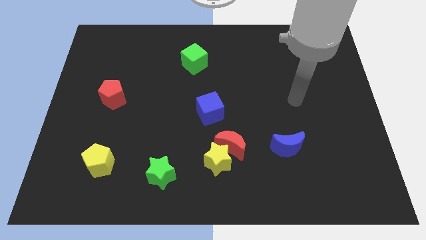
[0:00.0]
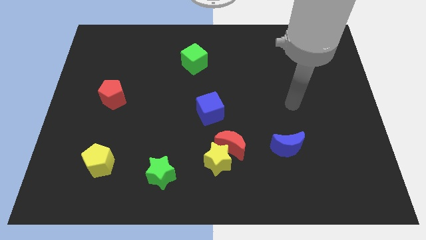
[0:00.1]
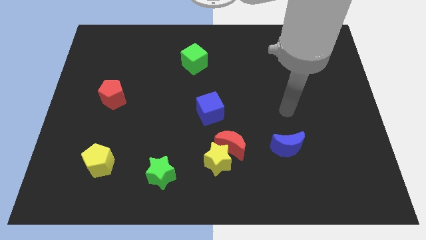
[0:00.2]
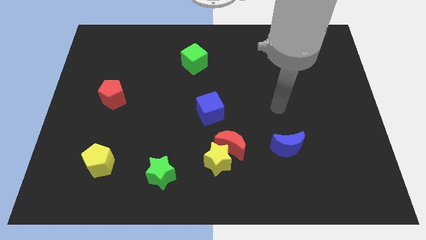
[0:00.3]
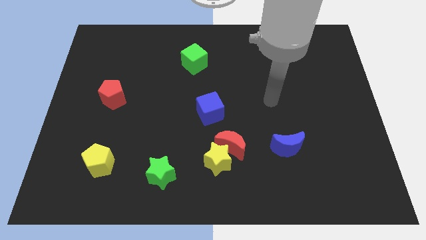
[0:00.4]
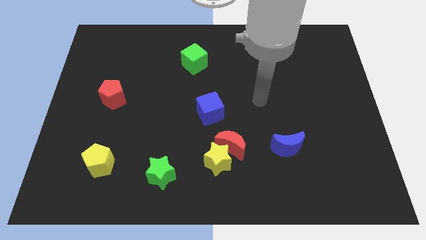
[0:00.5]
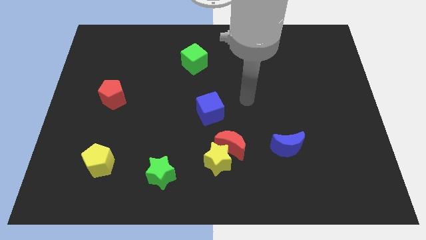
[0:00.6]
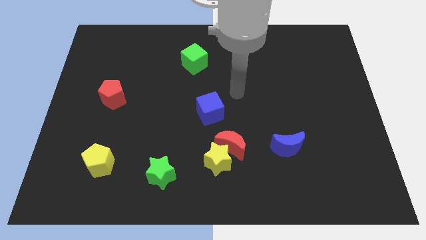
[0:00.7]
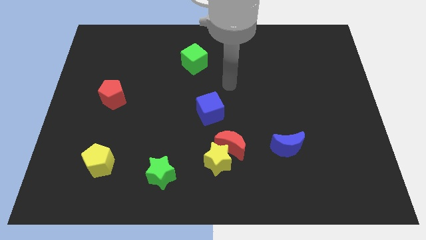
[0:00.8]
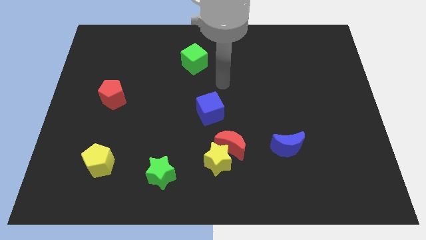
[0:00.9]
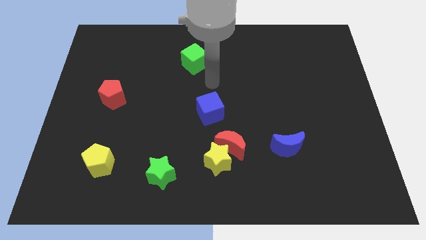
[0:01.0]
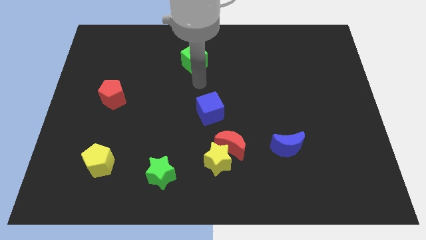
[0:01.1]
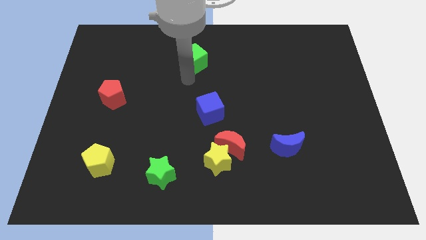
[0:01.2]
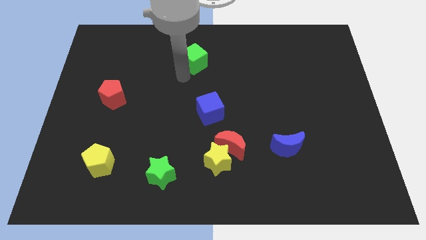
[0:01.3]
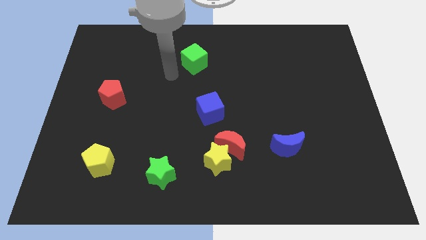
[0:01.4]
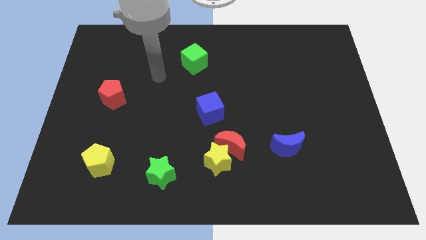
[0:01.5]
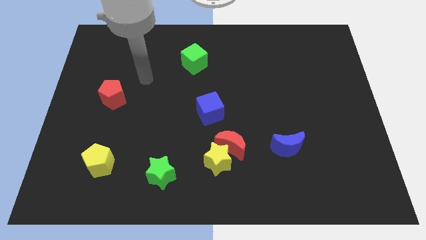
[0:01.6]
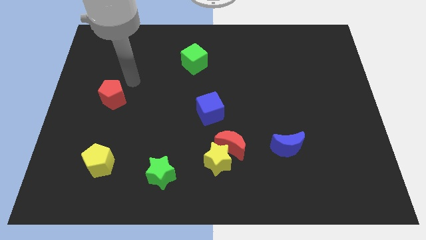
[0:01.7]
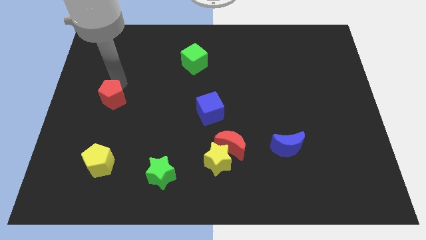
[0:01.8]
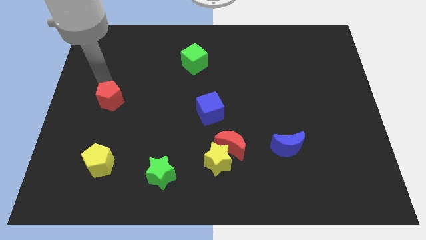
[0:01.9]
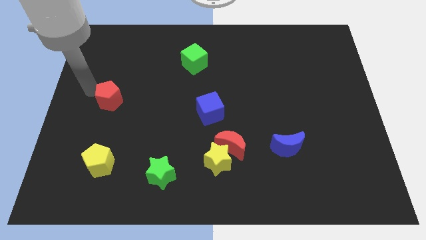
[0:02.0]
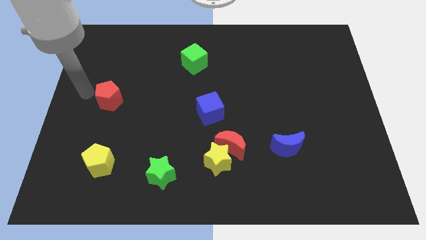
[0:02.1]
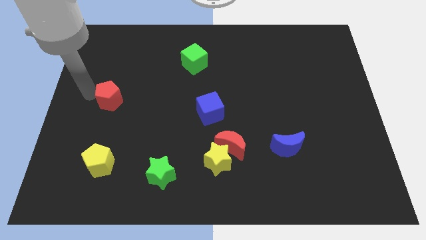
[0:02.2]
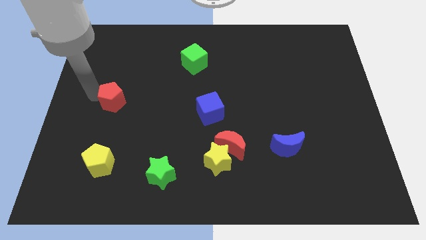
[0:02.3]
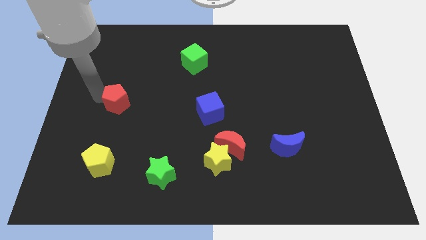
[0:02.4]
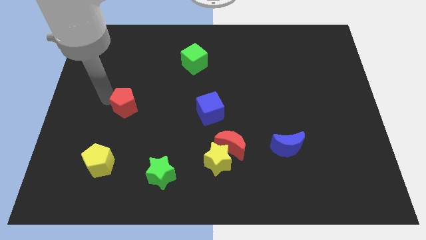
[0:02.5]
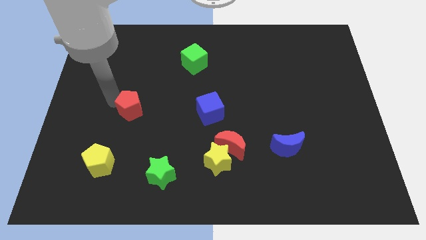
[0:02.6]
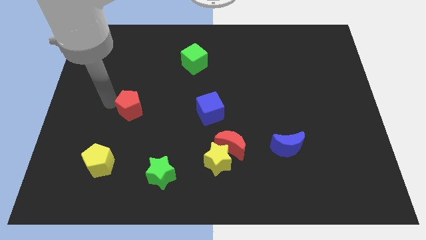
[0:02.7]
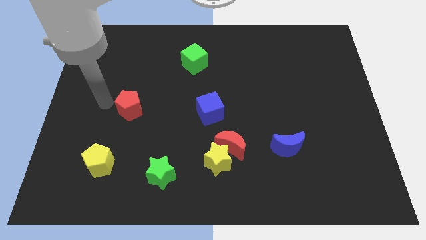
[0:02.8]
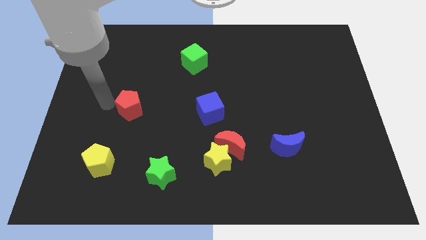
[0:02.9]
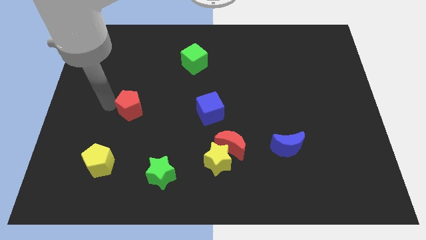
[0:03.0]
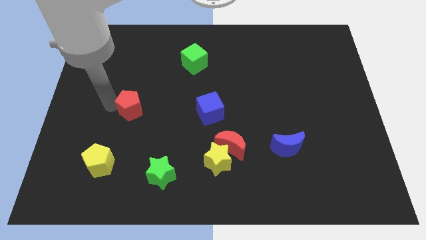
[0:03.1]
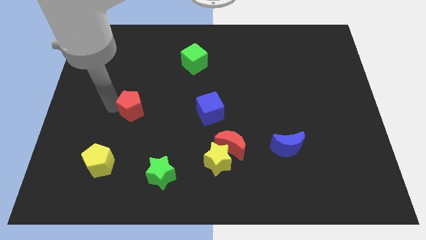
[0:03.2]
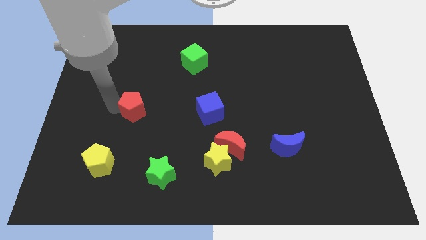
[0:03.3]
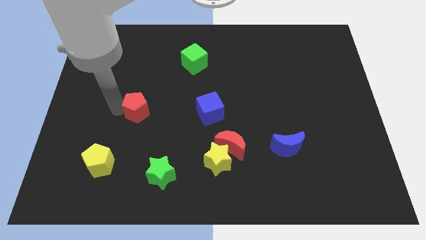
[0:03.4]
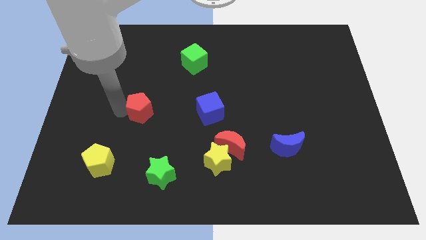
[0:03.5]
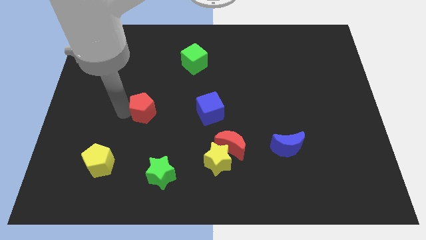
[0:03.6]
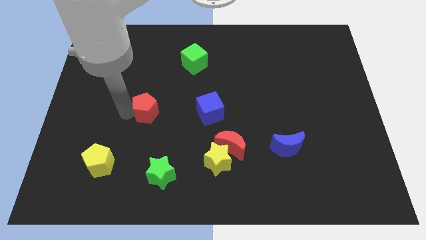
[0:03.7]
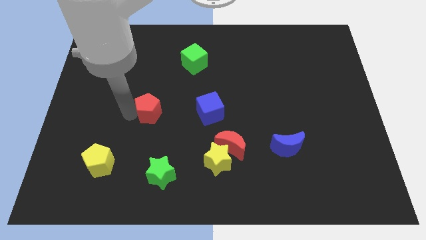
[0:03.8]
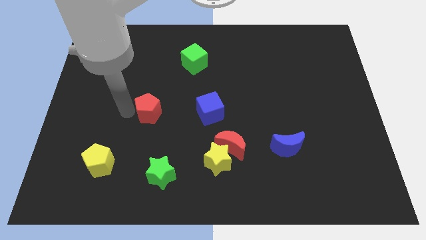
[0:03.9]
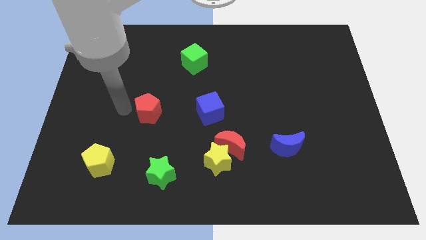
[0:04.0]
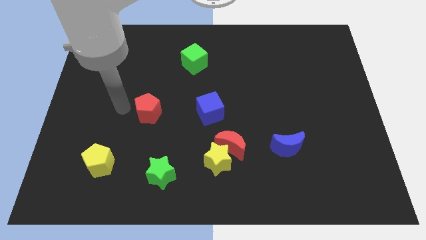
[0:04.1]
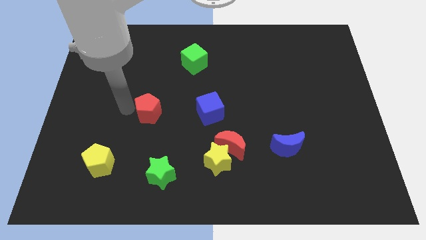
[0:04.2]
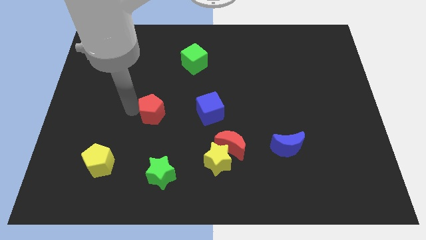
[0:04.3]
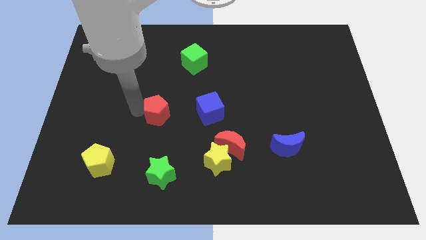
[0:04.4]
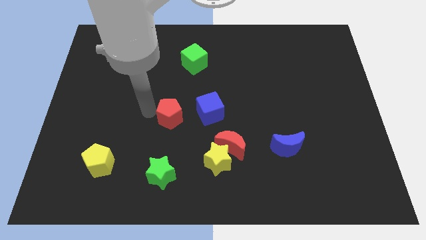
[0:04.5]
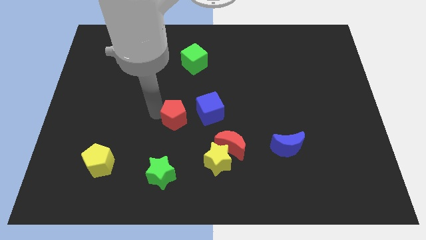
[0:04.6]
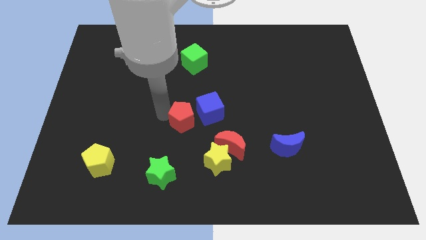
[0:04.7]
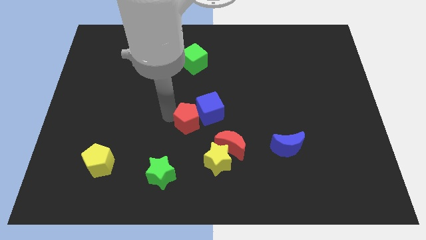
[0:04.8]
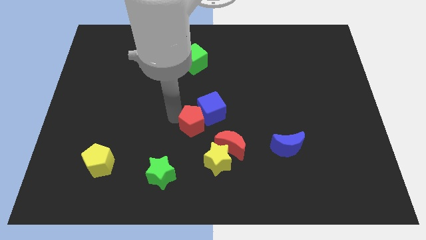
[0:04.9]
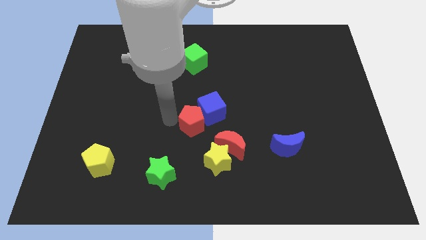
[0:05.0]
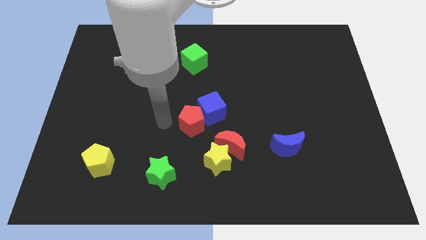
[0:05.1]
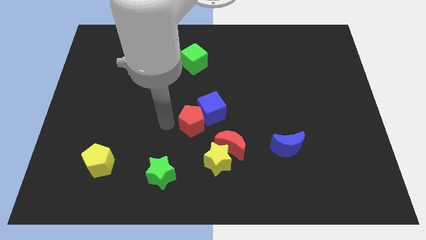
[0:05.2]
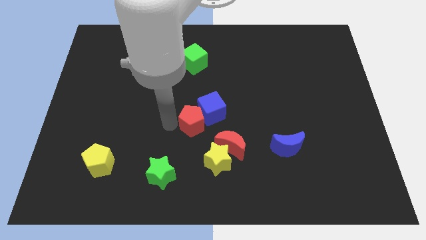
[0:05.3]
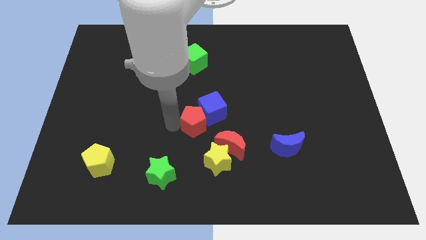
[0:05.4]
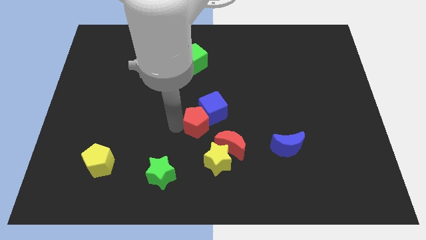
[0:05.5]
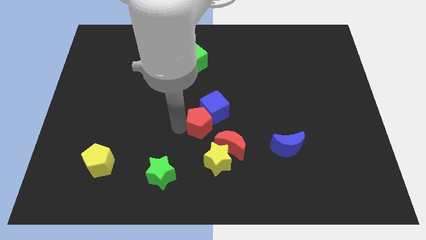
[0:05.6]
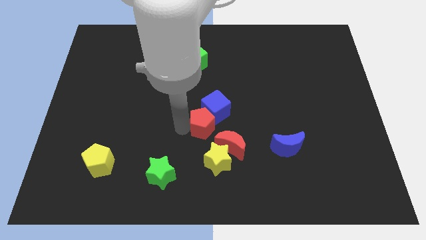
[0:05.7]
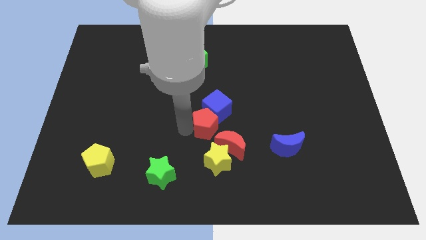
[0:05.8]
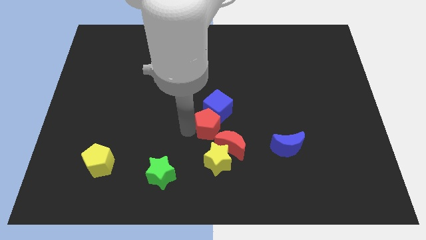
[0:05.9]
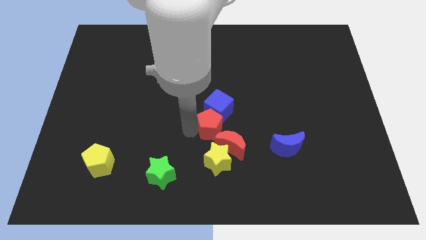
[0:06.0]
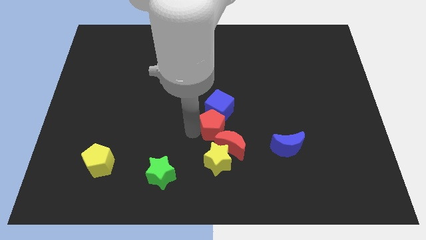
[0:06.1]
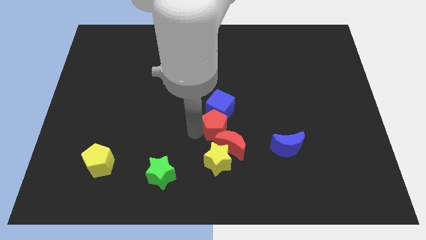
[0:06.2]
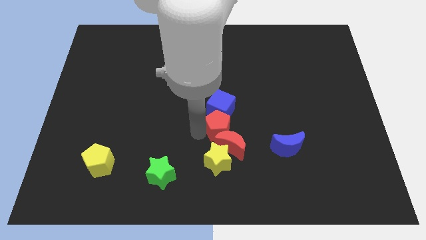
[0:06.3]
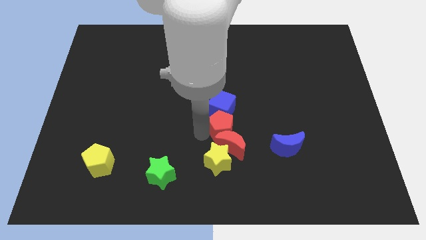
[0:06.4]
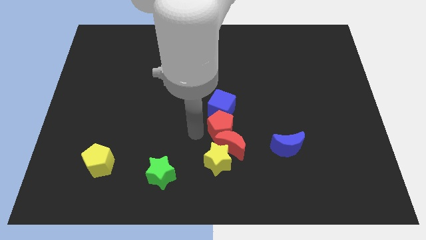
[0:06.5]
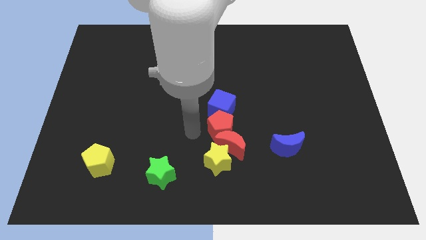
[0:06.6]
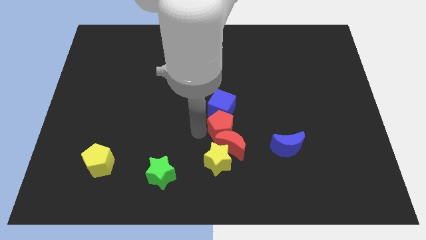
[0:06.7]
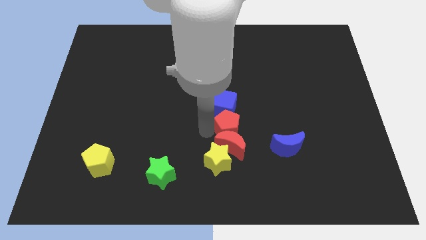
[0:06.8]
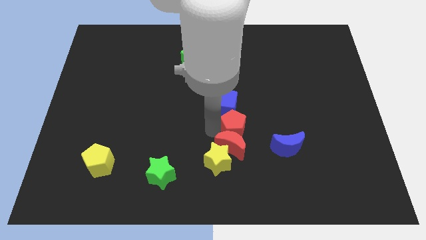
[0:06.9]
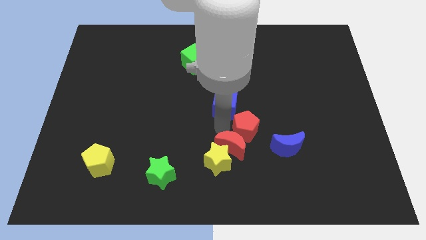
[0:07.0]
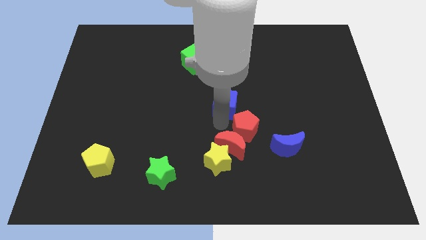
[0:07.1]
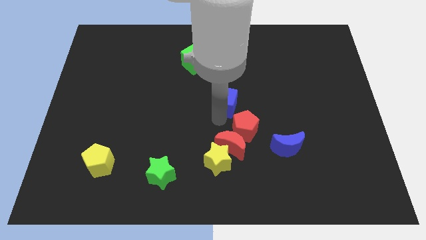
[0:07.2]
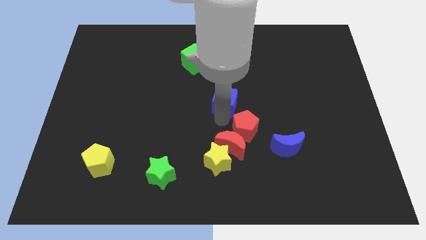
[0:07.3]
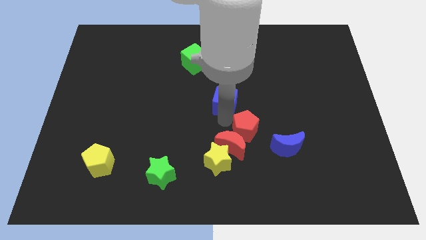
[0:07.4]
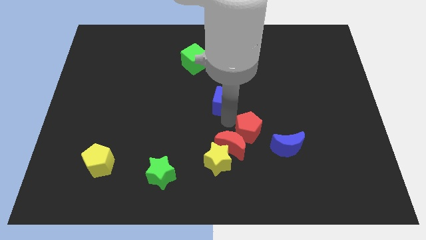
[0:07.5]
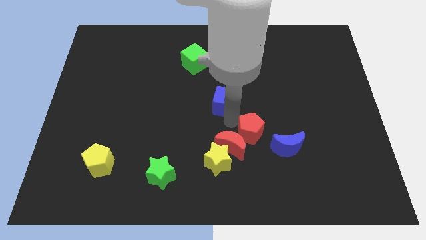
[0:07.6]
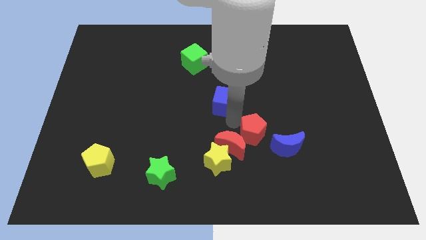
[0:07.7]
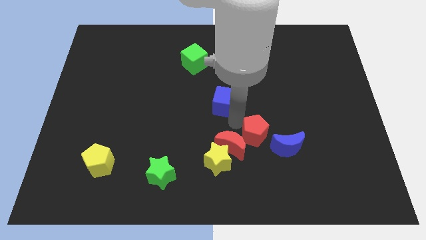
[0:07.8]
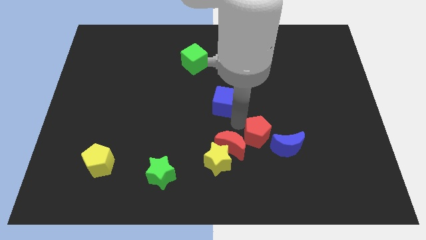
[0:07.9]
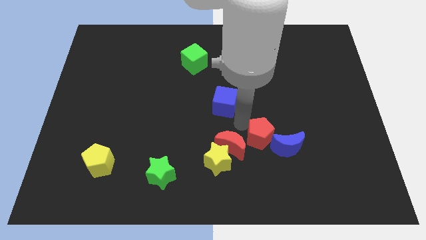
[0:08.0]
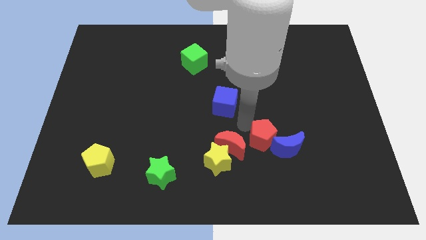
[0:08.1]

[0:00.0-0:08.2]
move the red pentagon close to the blue moon

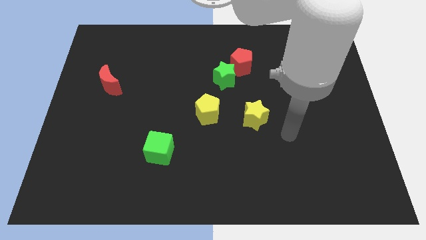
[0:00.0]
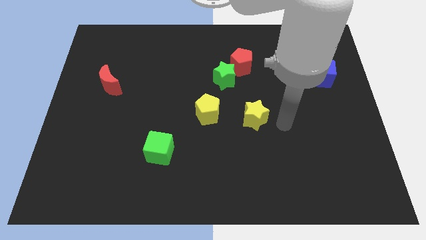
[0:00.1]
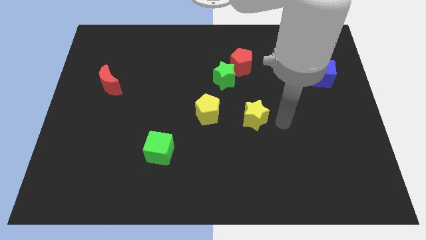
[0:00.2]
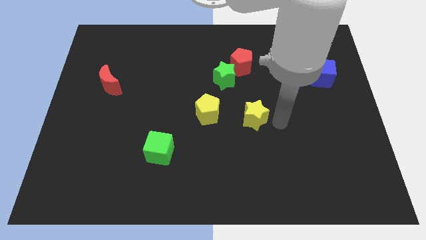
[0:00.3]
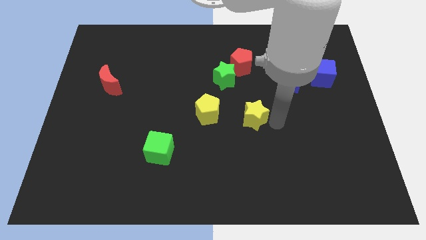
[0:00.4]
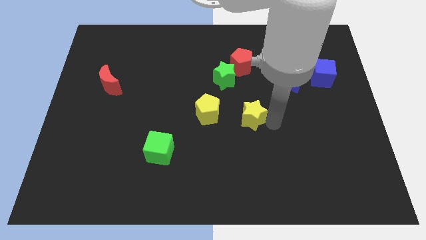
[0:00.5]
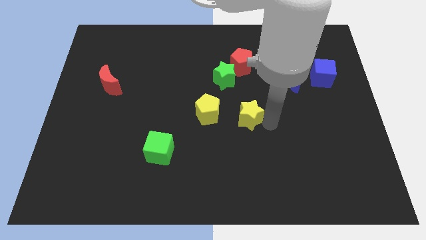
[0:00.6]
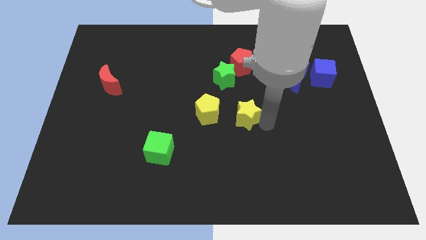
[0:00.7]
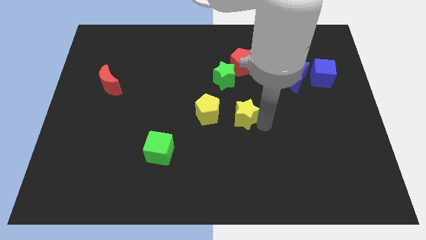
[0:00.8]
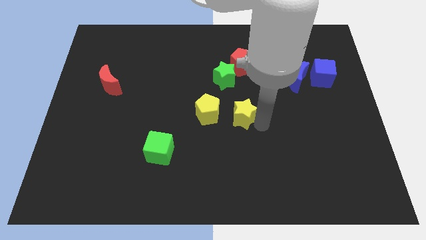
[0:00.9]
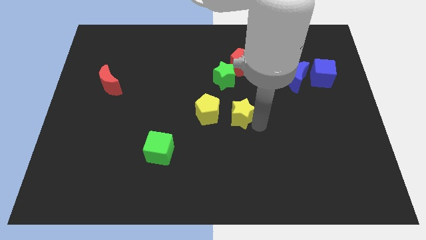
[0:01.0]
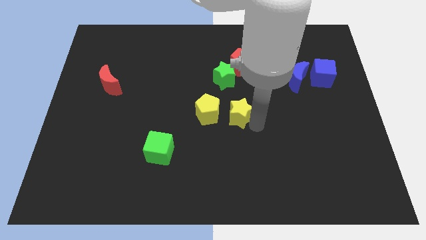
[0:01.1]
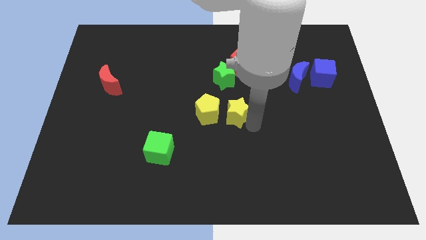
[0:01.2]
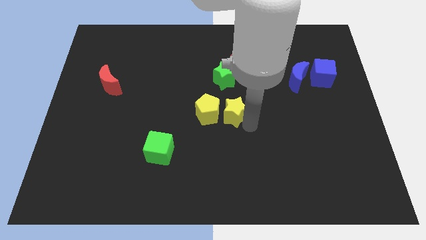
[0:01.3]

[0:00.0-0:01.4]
put the yellow star close to the yellow pentagon
